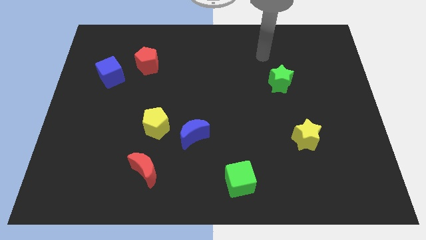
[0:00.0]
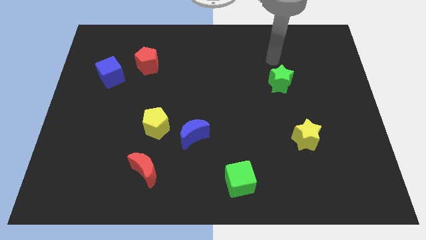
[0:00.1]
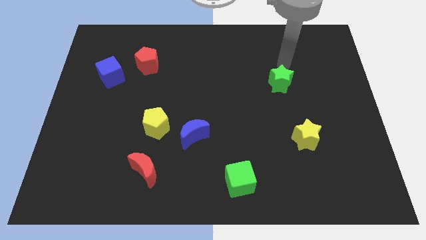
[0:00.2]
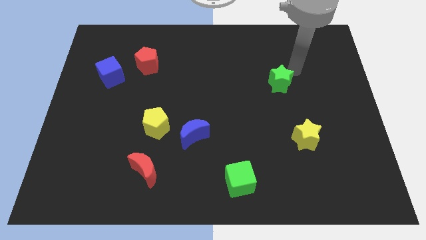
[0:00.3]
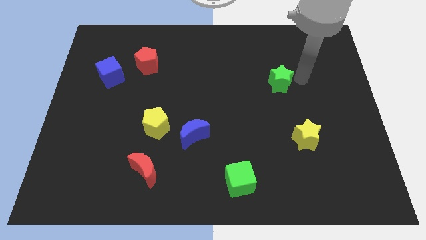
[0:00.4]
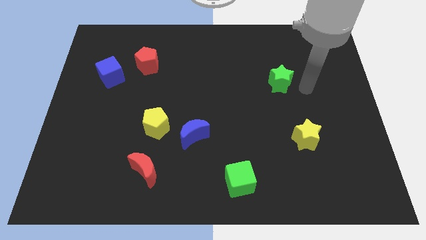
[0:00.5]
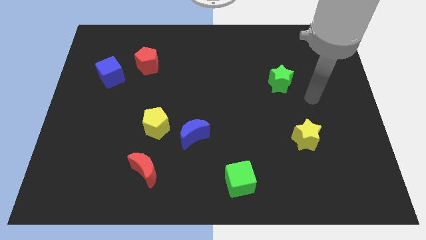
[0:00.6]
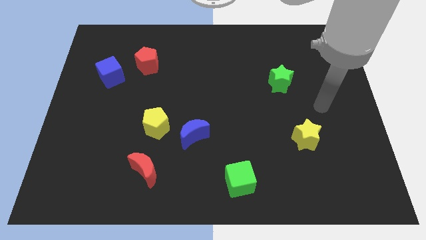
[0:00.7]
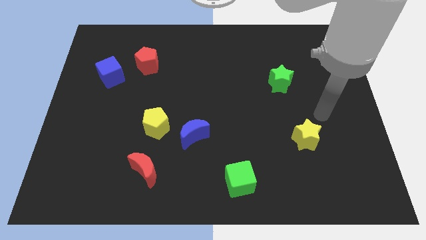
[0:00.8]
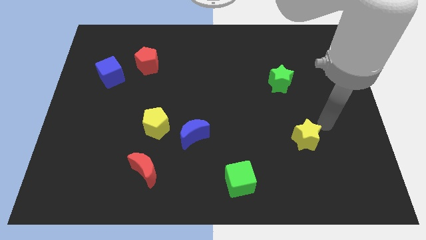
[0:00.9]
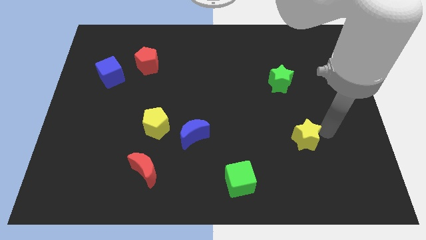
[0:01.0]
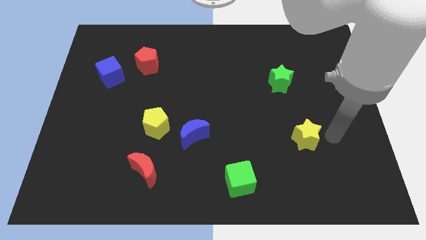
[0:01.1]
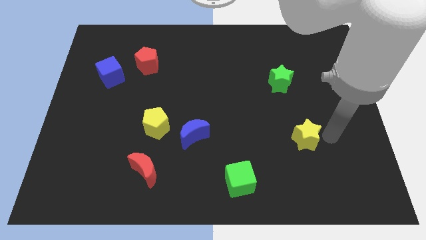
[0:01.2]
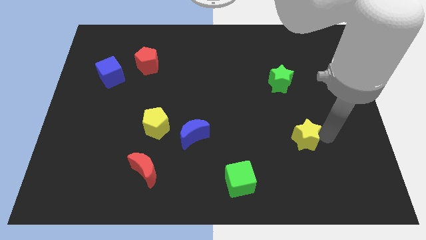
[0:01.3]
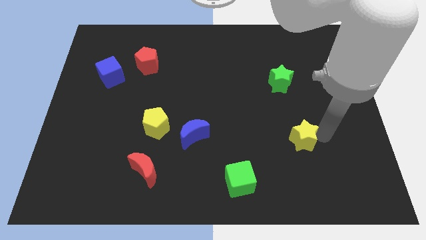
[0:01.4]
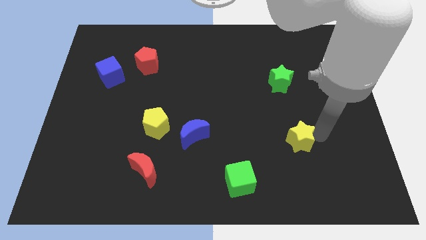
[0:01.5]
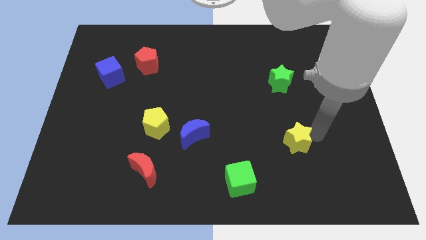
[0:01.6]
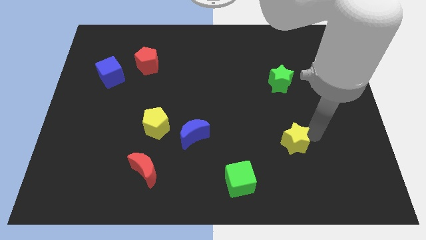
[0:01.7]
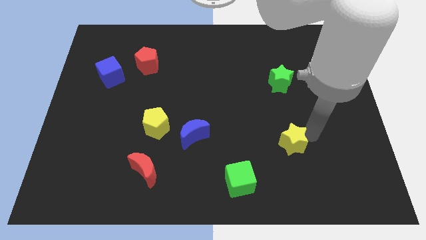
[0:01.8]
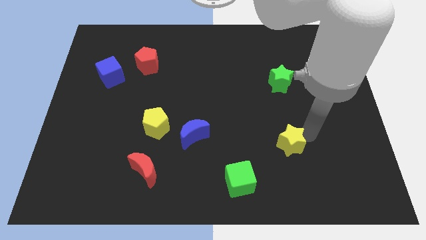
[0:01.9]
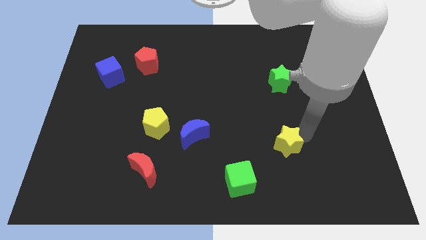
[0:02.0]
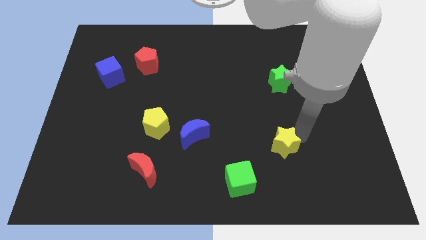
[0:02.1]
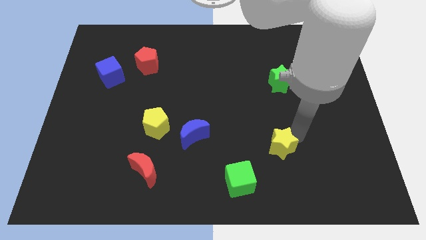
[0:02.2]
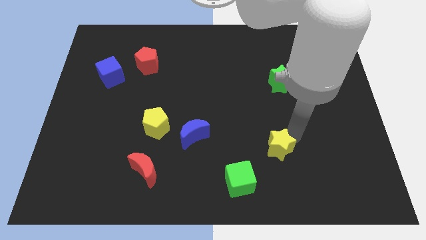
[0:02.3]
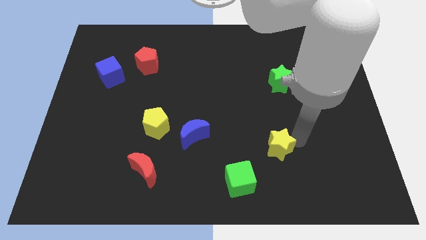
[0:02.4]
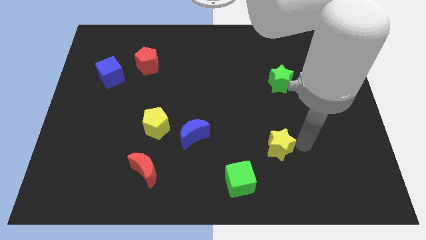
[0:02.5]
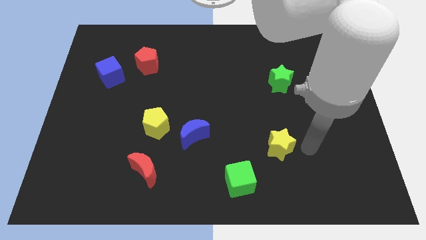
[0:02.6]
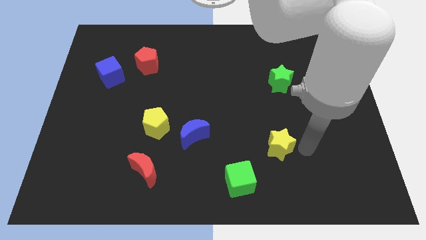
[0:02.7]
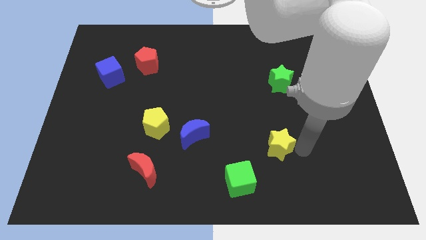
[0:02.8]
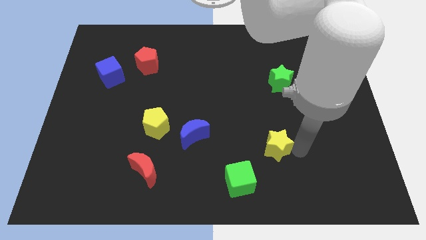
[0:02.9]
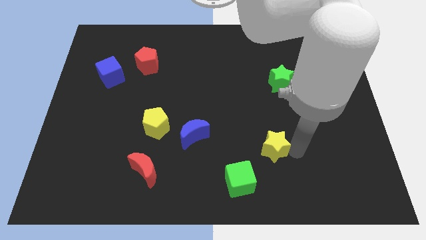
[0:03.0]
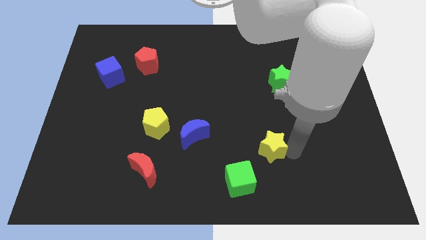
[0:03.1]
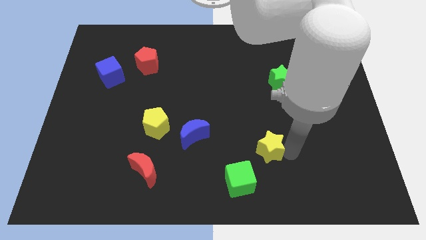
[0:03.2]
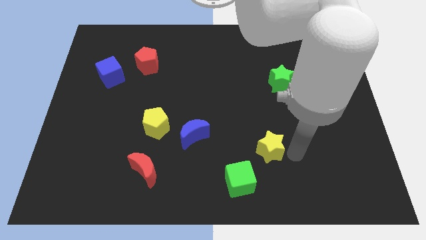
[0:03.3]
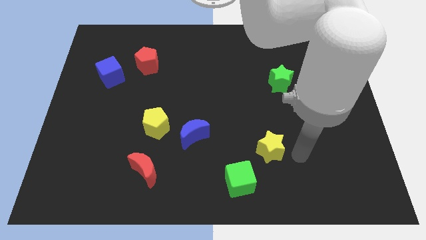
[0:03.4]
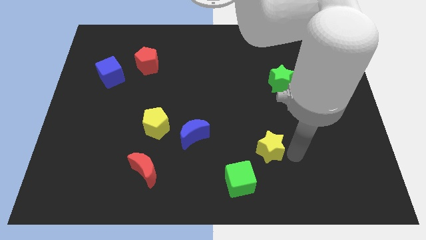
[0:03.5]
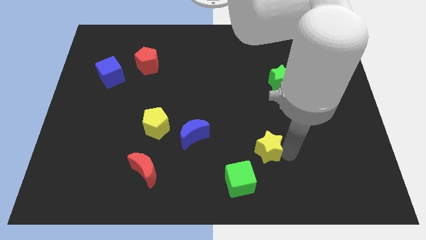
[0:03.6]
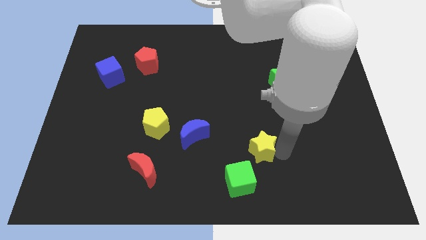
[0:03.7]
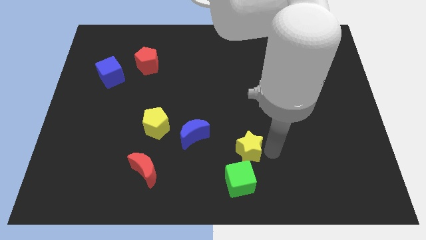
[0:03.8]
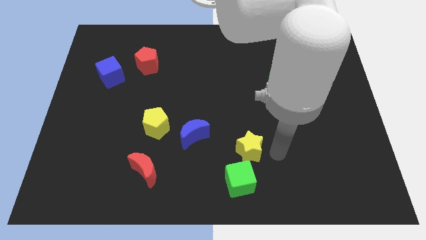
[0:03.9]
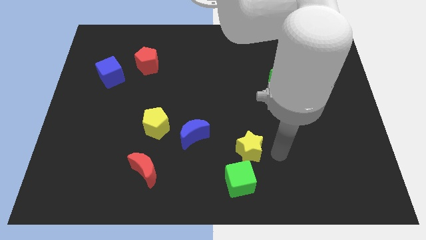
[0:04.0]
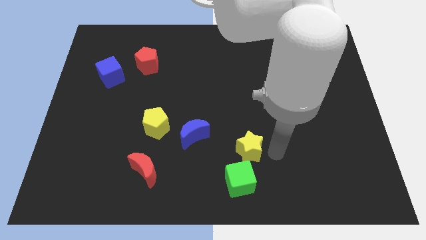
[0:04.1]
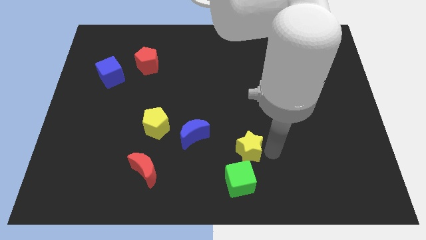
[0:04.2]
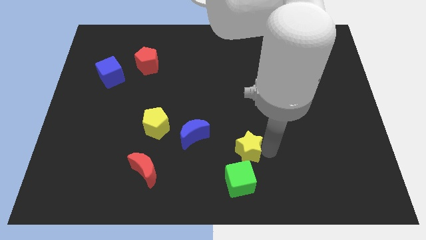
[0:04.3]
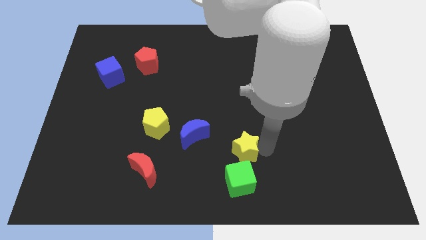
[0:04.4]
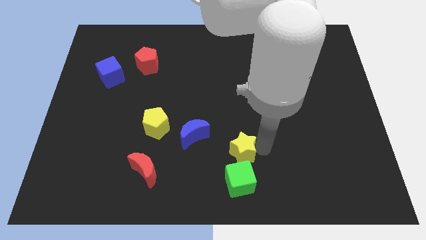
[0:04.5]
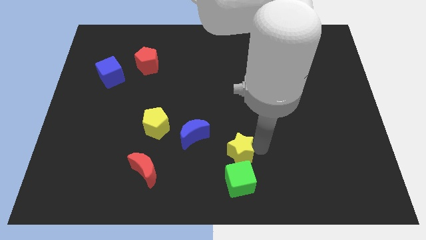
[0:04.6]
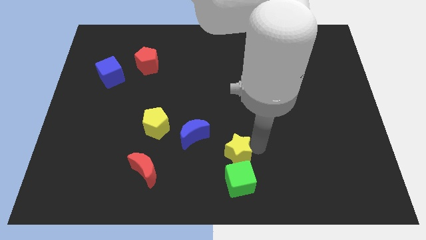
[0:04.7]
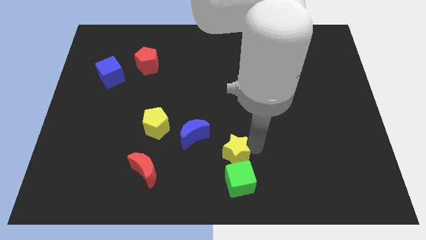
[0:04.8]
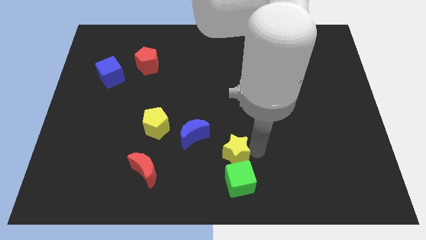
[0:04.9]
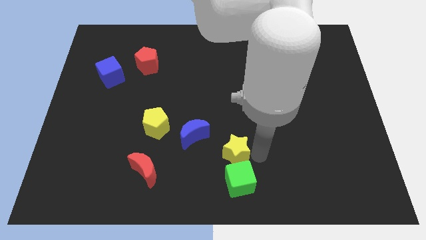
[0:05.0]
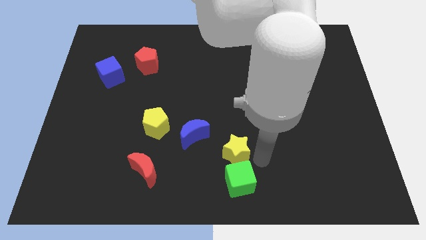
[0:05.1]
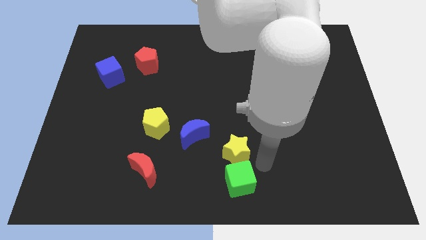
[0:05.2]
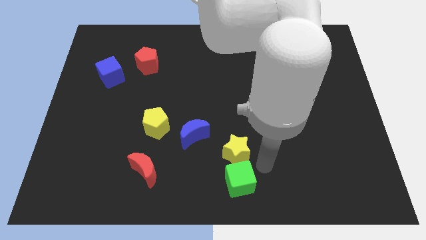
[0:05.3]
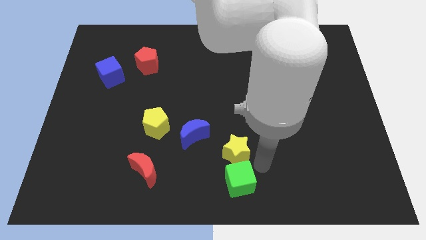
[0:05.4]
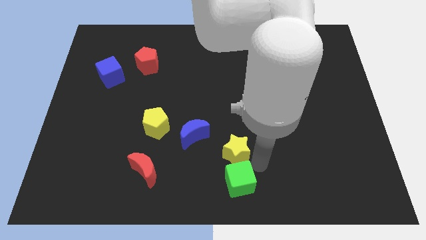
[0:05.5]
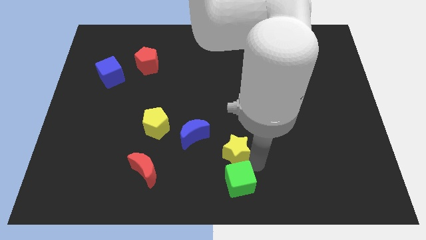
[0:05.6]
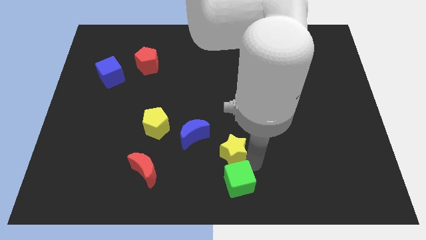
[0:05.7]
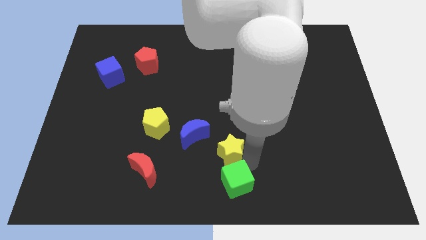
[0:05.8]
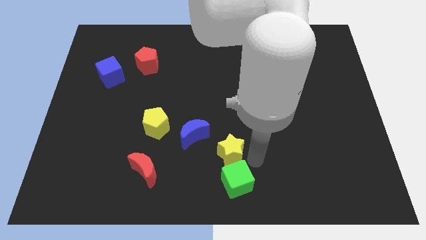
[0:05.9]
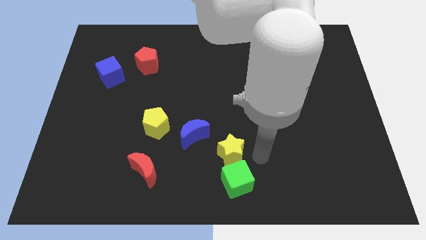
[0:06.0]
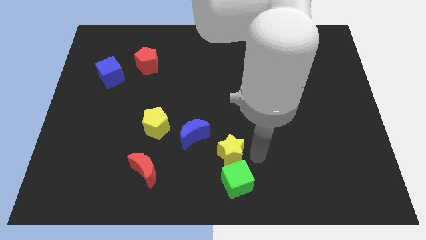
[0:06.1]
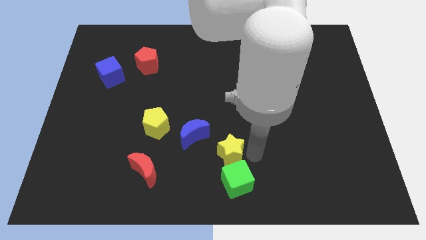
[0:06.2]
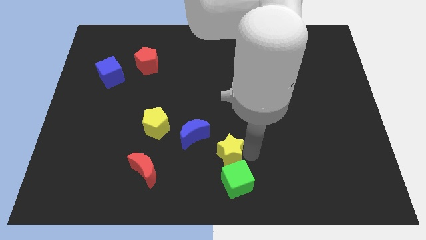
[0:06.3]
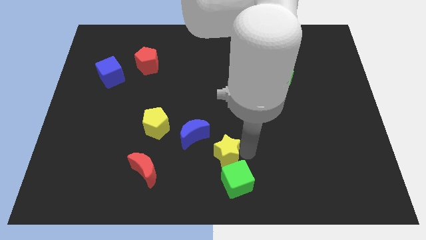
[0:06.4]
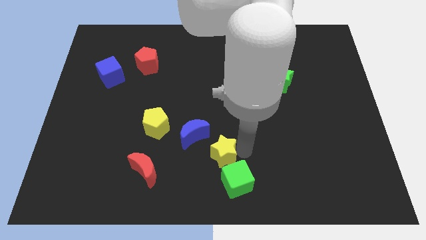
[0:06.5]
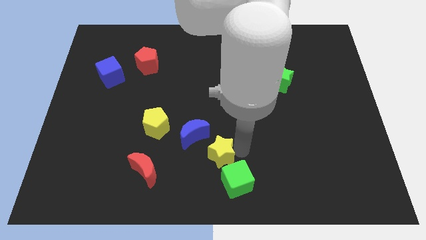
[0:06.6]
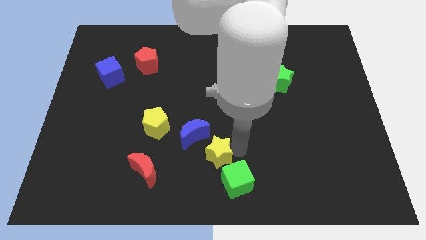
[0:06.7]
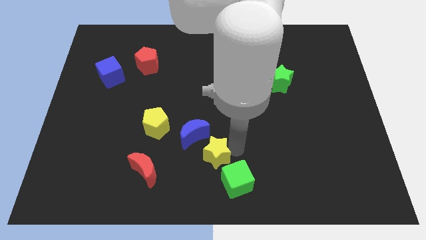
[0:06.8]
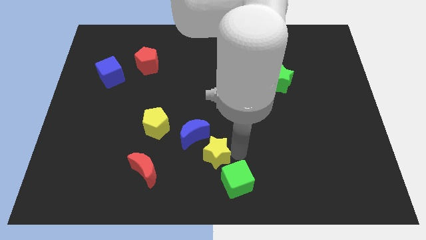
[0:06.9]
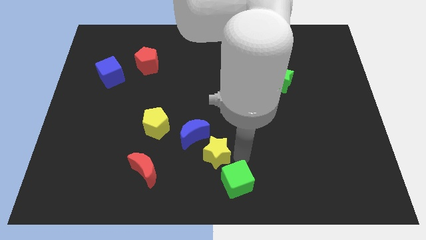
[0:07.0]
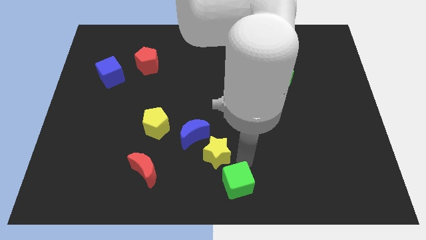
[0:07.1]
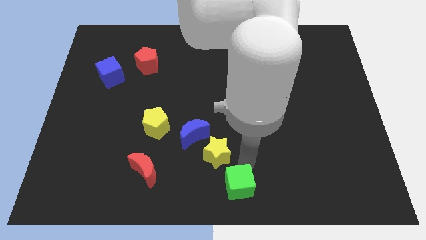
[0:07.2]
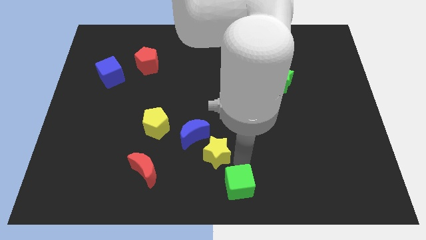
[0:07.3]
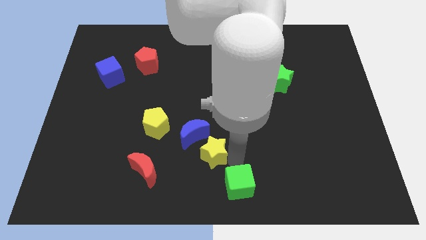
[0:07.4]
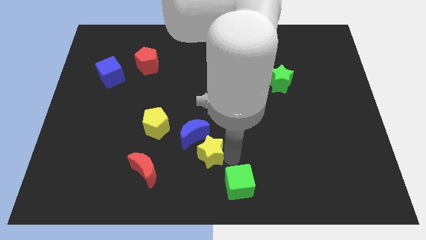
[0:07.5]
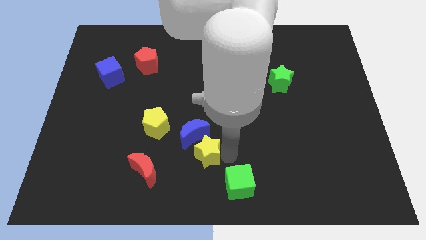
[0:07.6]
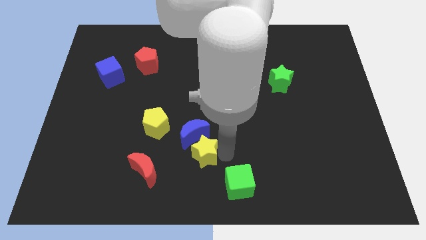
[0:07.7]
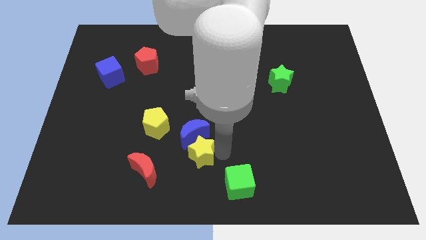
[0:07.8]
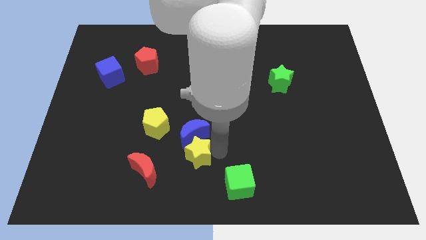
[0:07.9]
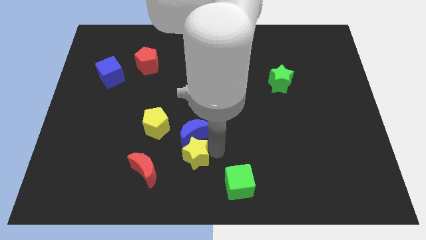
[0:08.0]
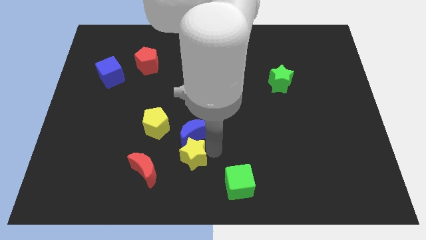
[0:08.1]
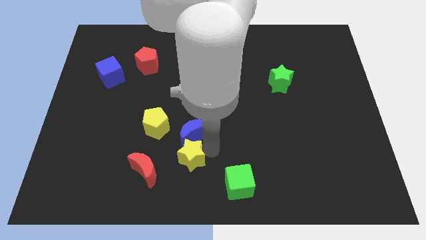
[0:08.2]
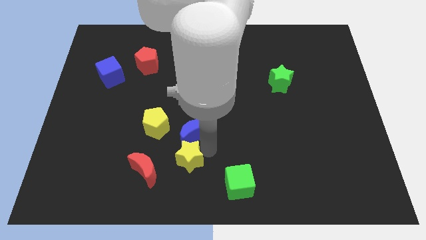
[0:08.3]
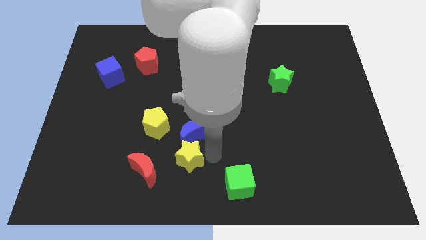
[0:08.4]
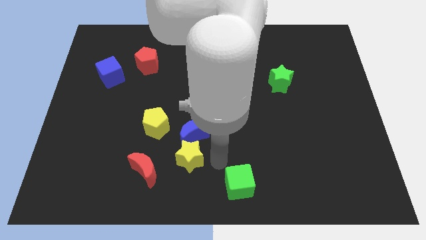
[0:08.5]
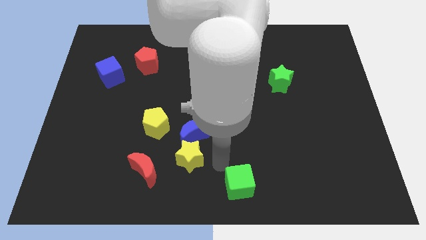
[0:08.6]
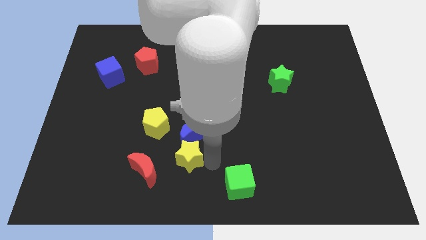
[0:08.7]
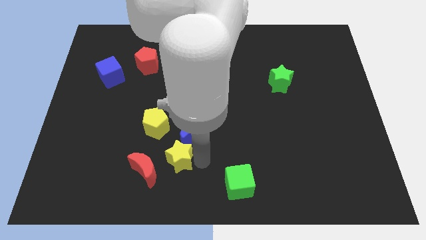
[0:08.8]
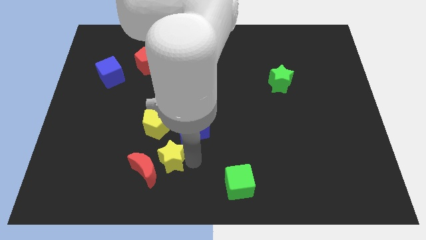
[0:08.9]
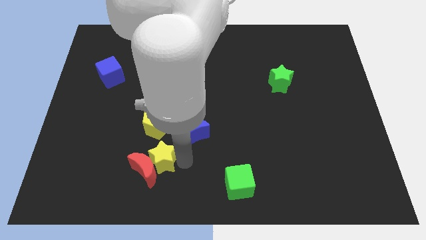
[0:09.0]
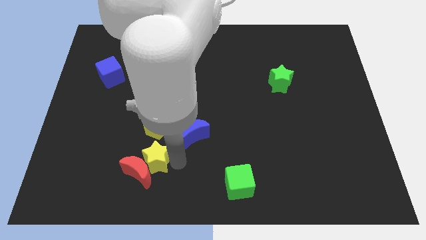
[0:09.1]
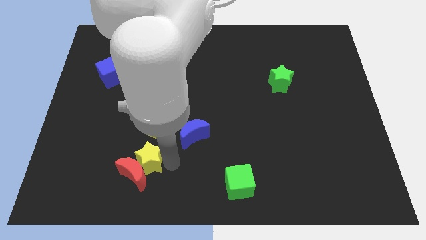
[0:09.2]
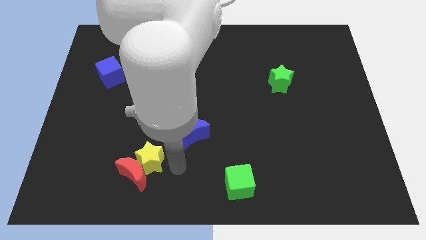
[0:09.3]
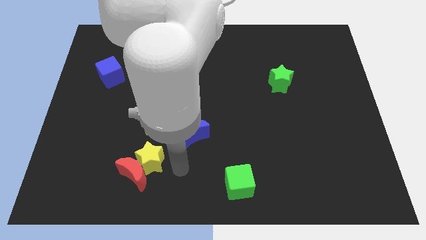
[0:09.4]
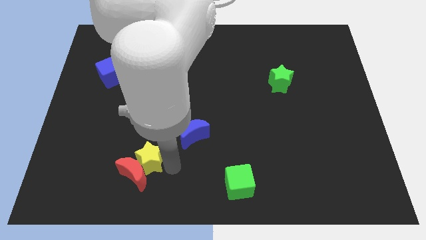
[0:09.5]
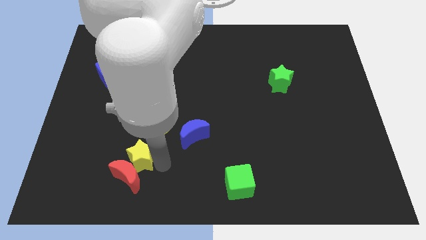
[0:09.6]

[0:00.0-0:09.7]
move the yellow star diagonally up and to the left of the red moon
